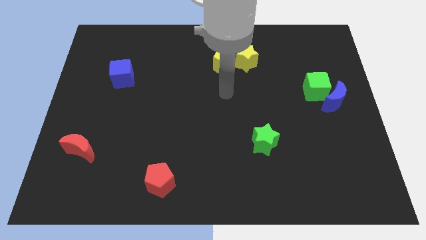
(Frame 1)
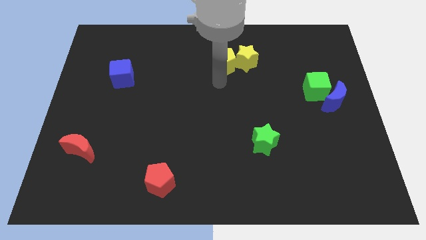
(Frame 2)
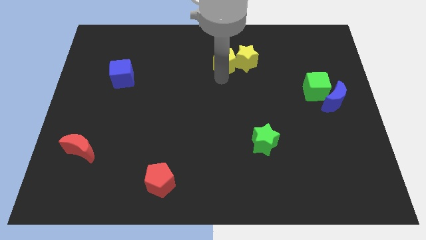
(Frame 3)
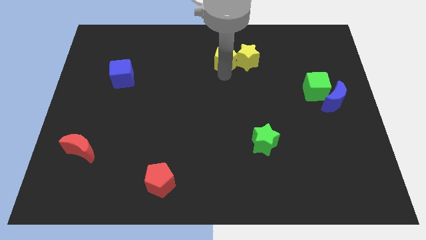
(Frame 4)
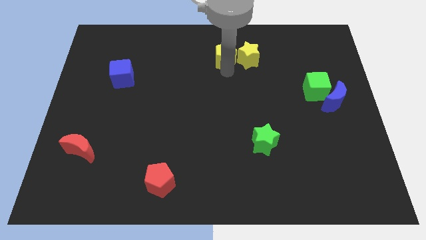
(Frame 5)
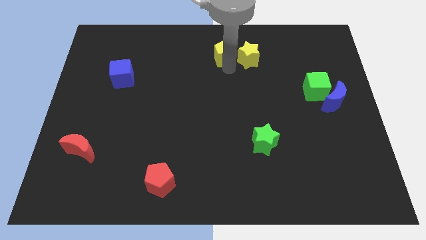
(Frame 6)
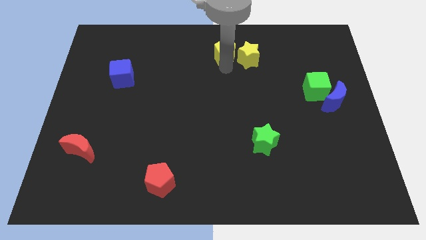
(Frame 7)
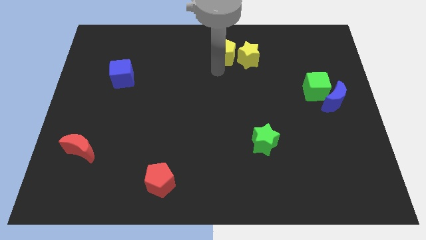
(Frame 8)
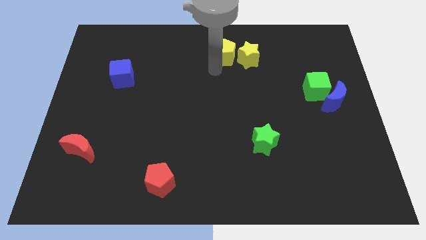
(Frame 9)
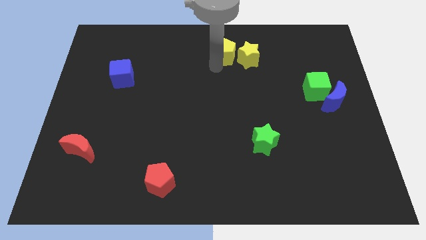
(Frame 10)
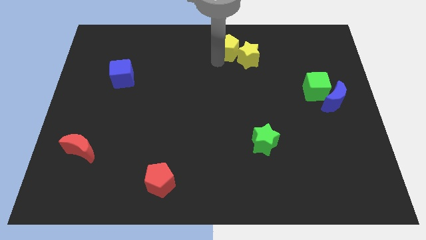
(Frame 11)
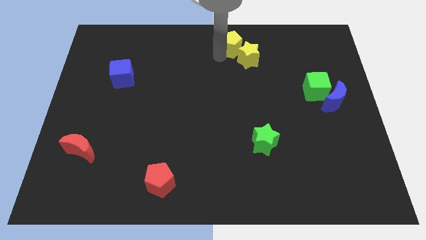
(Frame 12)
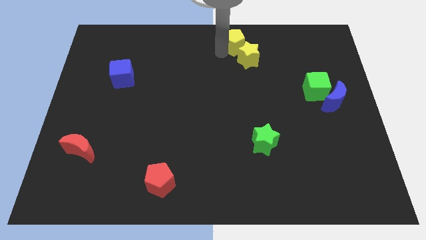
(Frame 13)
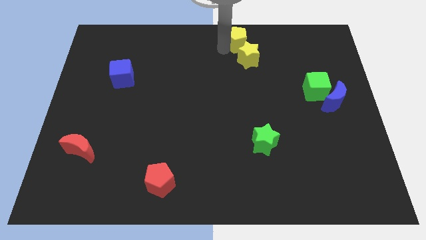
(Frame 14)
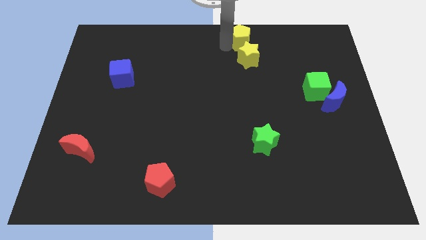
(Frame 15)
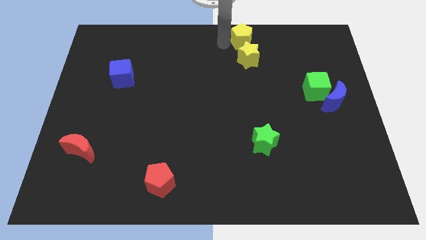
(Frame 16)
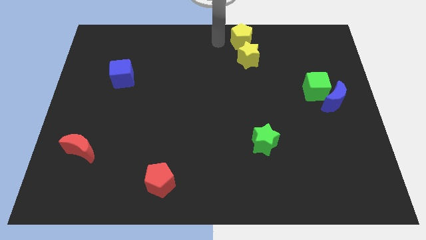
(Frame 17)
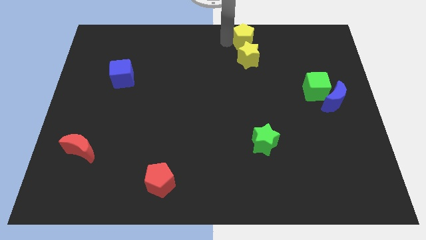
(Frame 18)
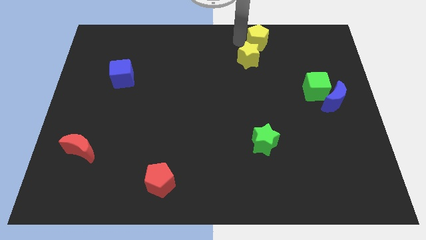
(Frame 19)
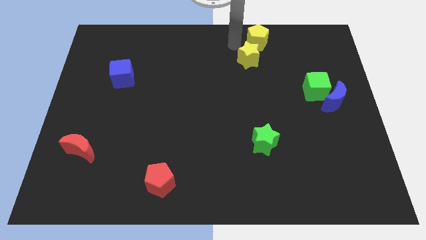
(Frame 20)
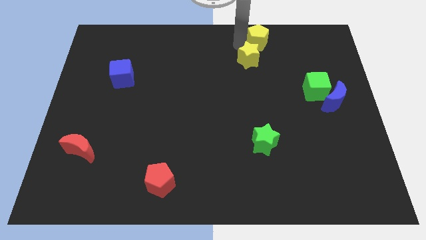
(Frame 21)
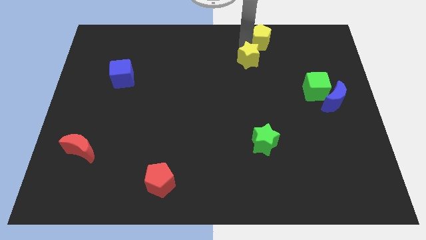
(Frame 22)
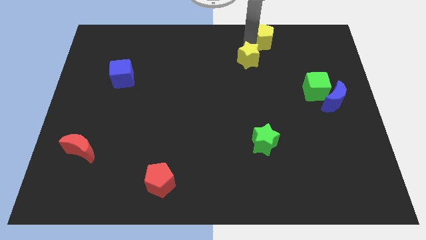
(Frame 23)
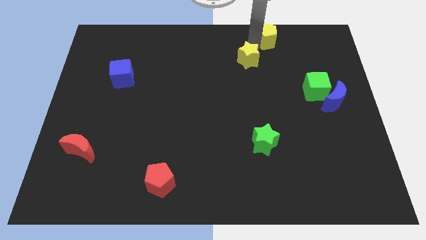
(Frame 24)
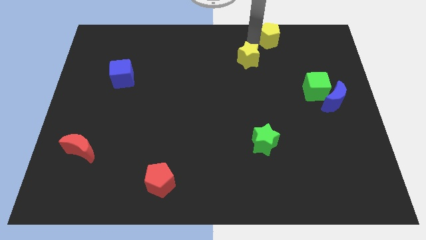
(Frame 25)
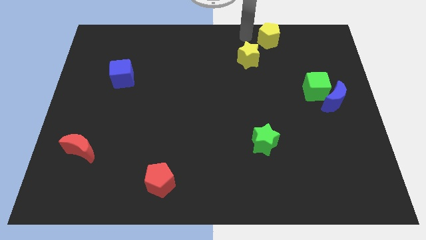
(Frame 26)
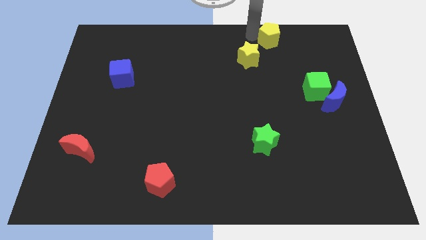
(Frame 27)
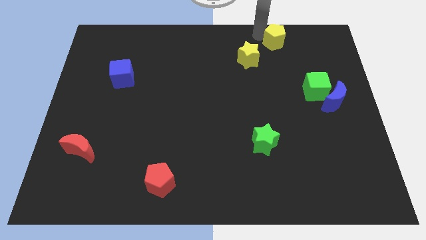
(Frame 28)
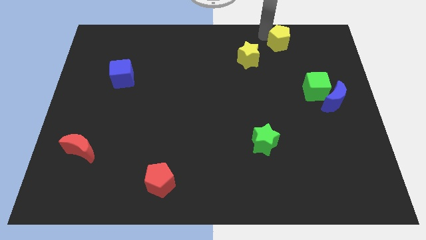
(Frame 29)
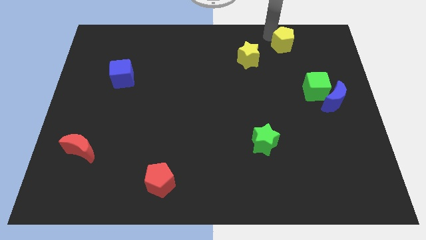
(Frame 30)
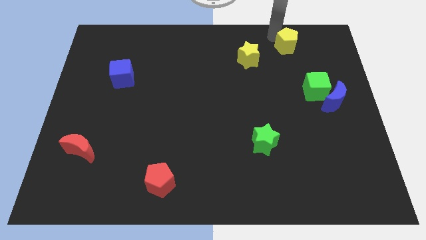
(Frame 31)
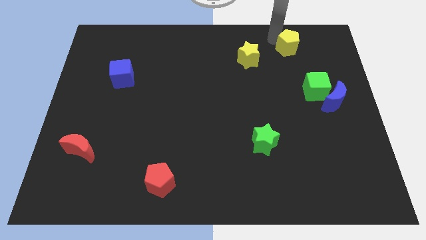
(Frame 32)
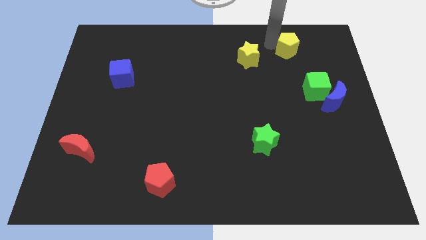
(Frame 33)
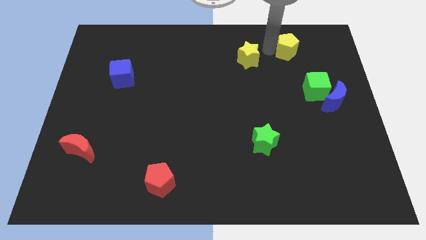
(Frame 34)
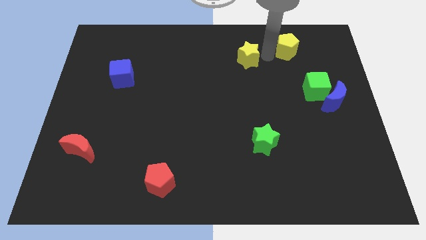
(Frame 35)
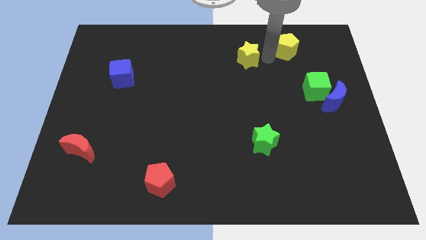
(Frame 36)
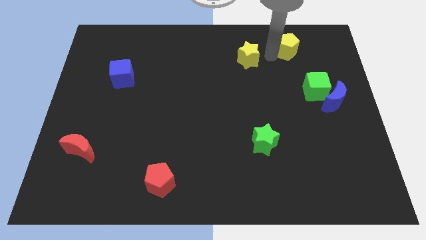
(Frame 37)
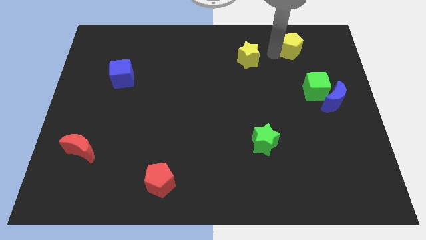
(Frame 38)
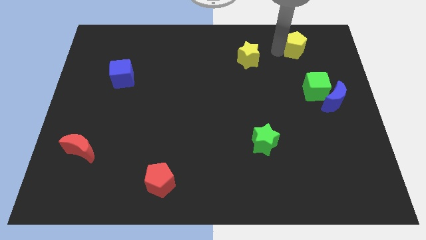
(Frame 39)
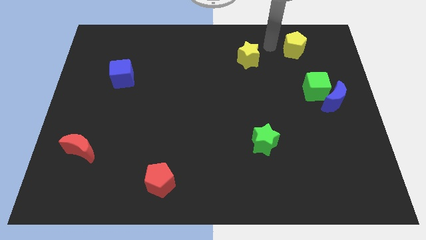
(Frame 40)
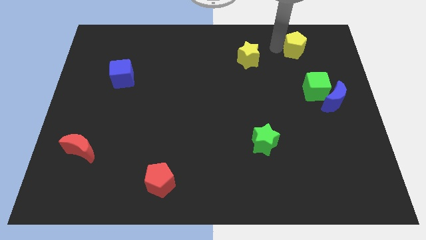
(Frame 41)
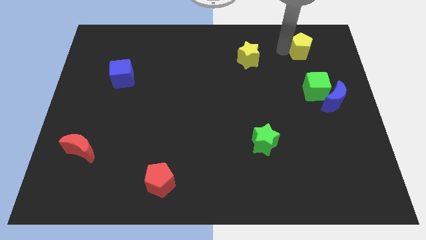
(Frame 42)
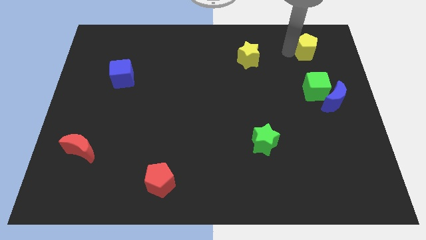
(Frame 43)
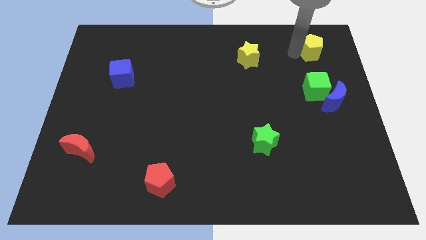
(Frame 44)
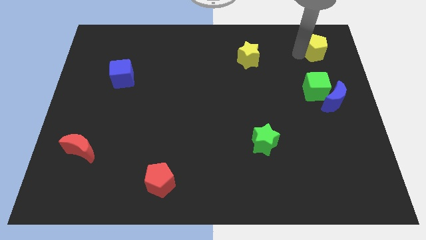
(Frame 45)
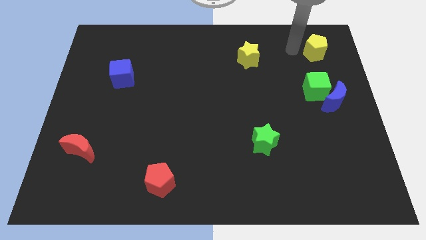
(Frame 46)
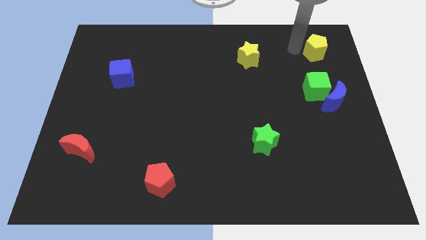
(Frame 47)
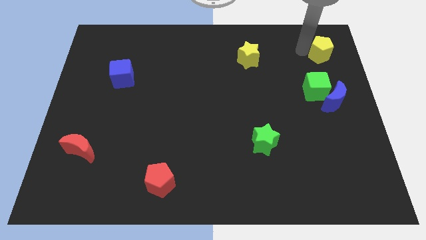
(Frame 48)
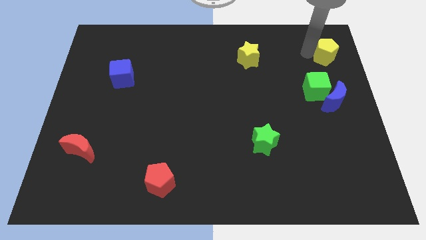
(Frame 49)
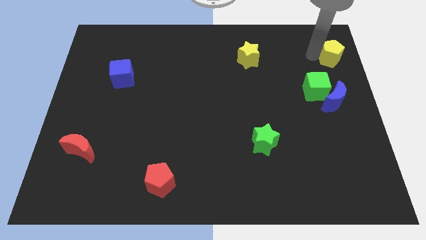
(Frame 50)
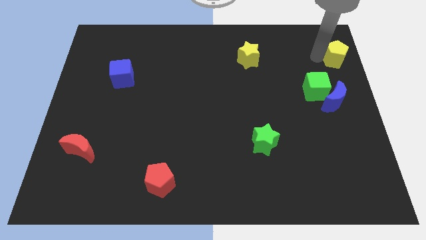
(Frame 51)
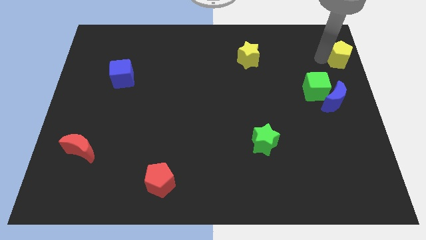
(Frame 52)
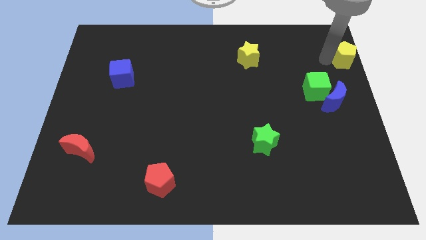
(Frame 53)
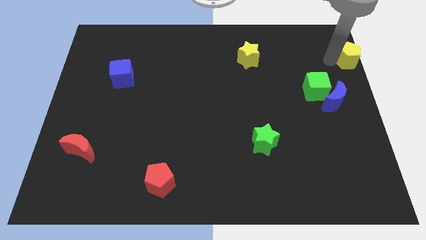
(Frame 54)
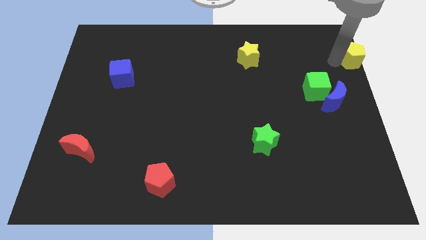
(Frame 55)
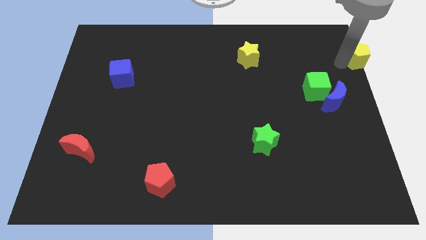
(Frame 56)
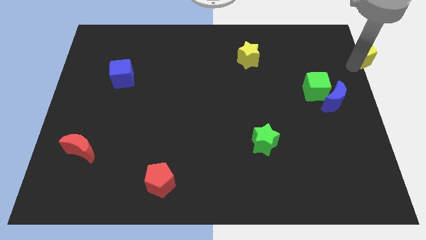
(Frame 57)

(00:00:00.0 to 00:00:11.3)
push the yellow pentagon to the top right of the board

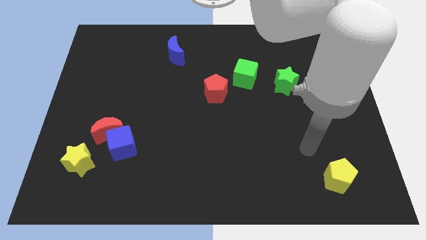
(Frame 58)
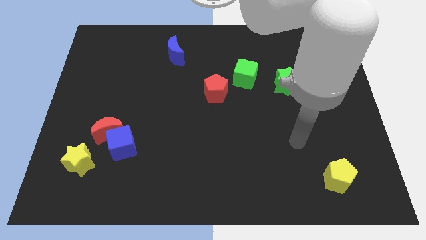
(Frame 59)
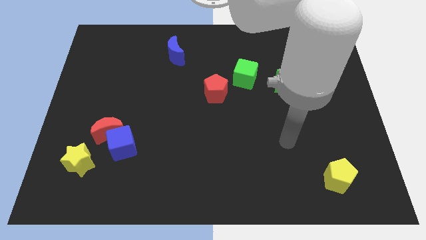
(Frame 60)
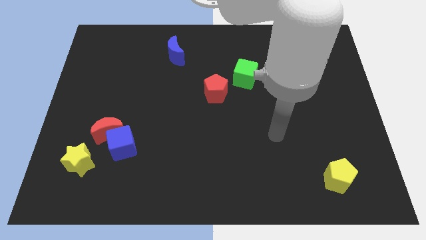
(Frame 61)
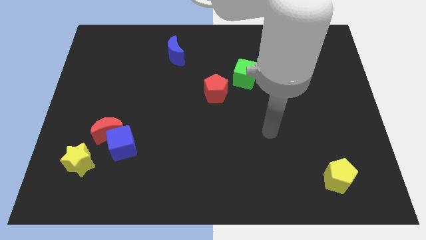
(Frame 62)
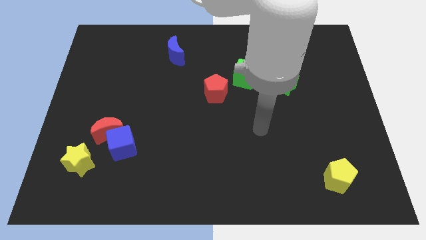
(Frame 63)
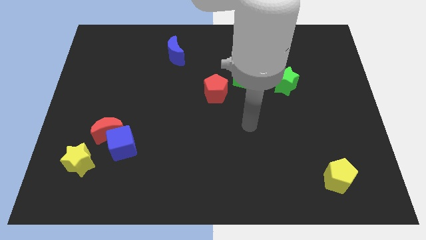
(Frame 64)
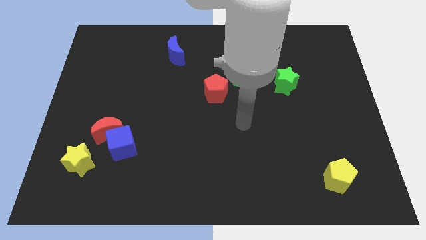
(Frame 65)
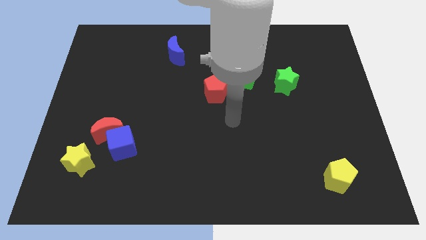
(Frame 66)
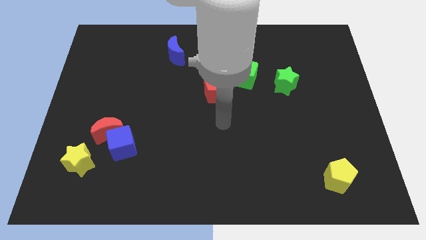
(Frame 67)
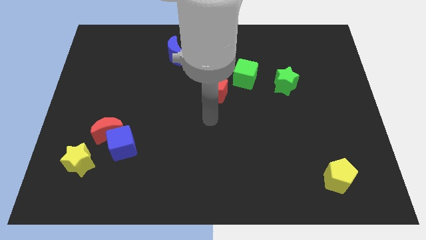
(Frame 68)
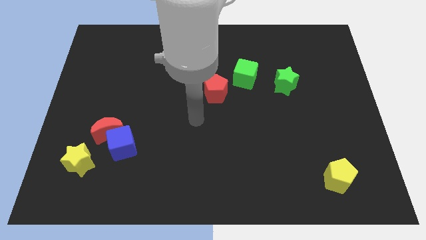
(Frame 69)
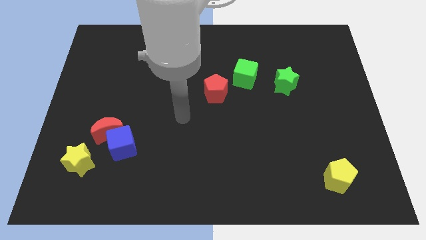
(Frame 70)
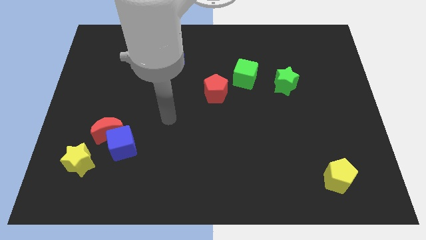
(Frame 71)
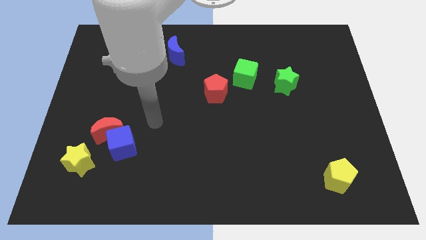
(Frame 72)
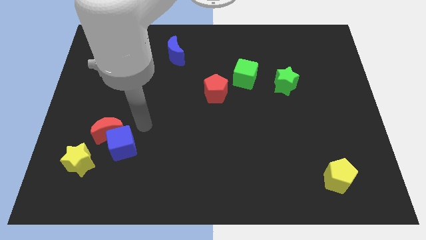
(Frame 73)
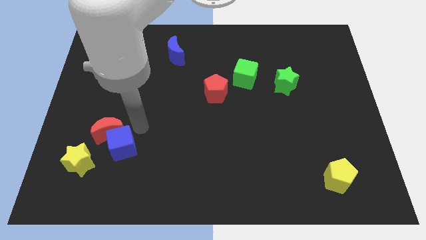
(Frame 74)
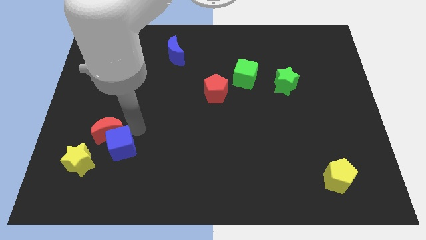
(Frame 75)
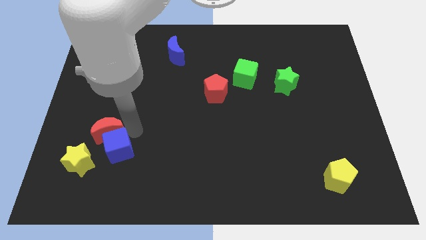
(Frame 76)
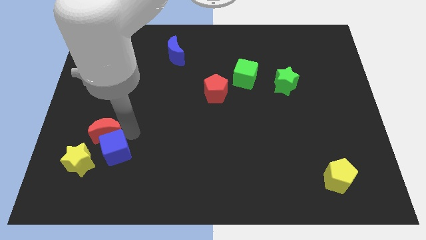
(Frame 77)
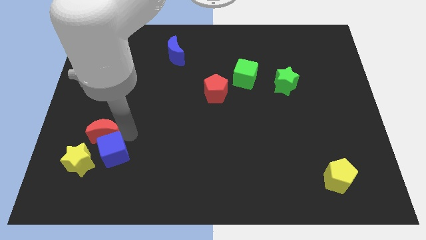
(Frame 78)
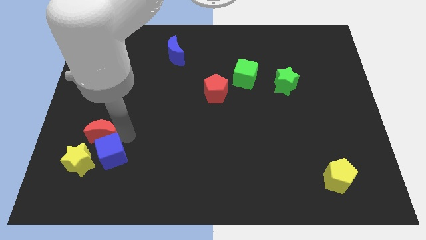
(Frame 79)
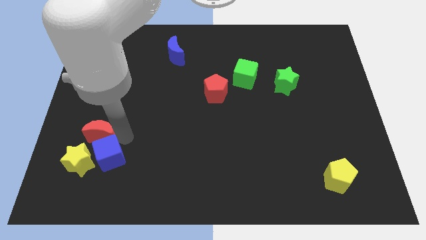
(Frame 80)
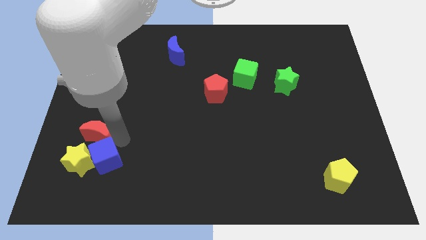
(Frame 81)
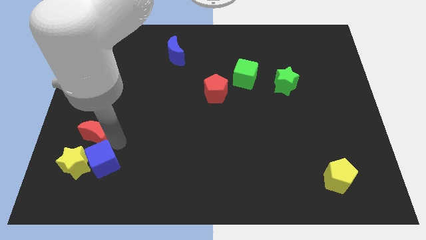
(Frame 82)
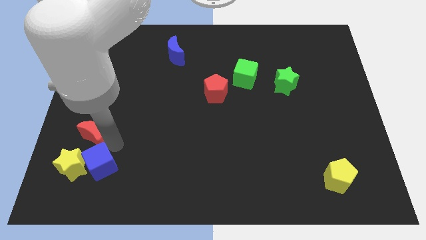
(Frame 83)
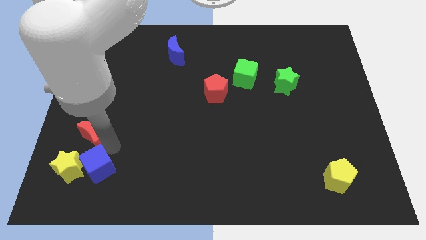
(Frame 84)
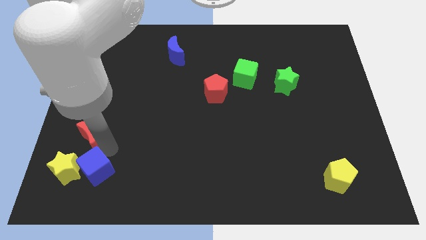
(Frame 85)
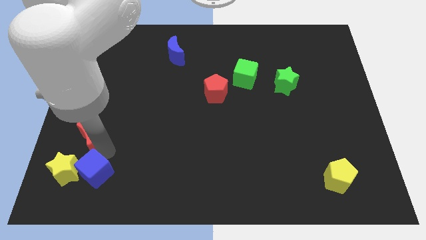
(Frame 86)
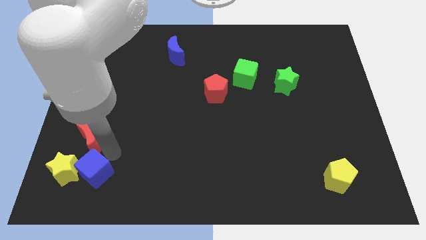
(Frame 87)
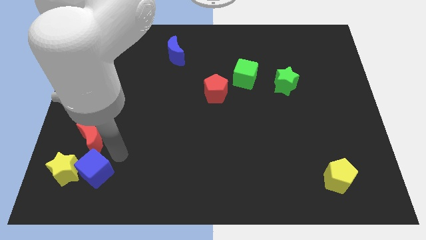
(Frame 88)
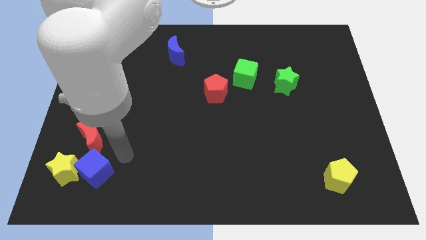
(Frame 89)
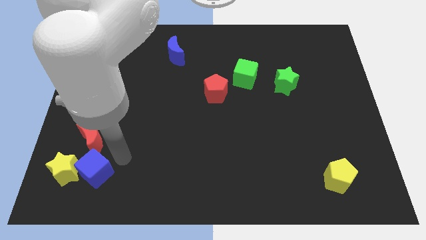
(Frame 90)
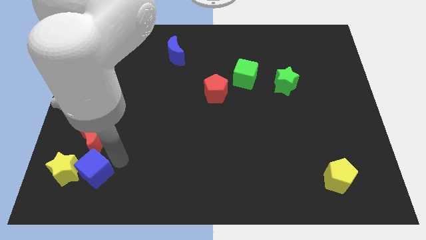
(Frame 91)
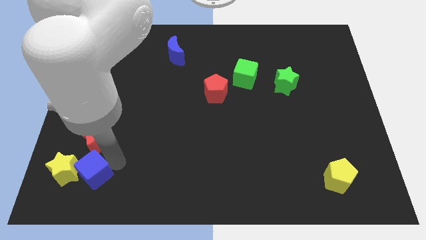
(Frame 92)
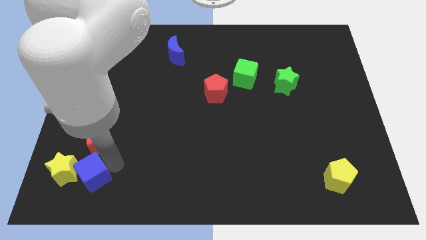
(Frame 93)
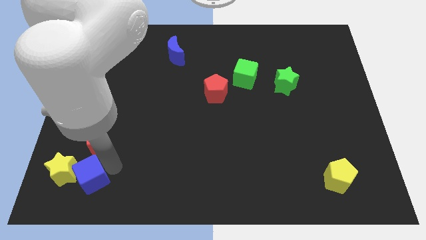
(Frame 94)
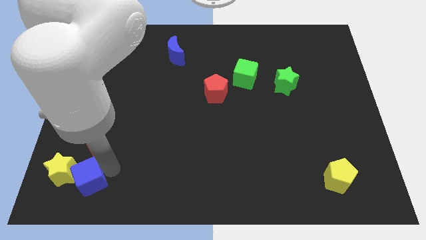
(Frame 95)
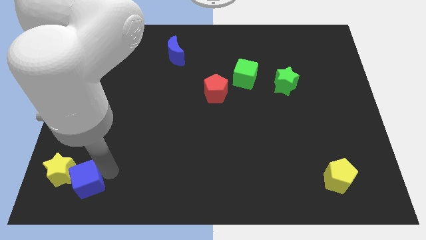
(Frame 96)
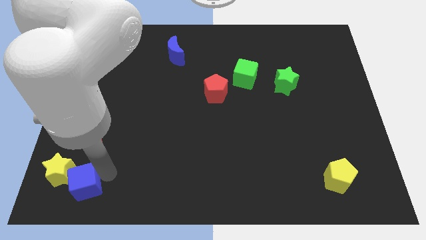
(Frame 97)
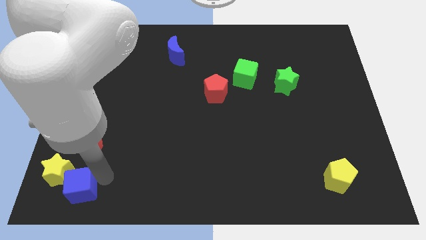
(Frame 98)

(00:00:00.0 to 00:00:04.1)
slide the blue cube to the lower left corner
